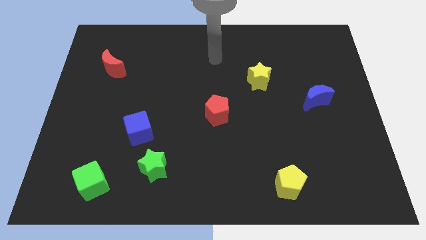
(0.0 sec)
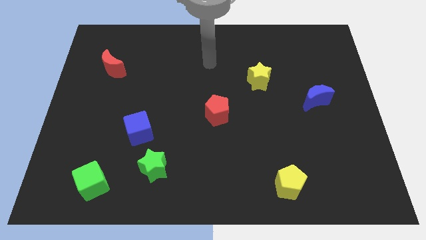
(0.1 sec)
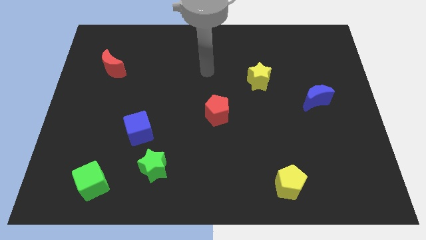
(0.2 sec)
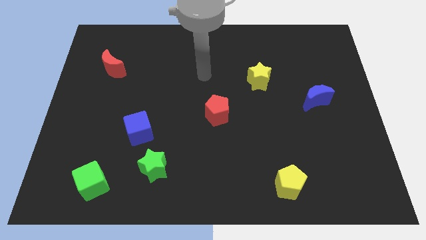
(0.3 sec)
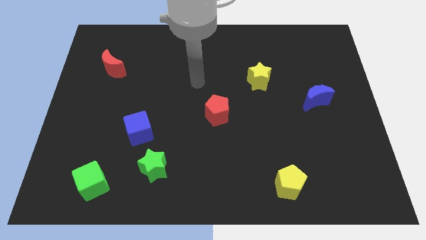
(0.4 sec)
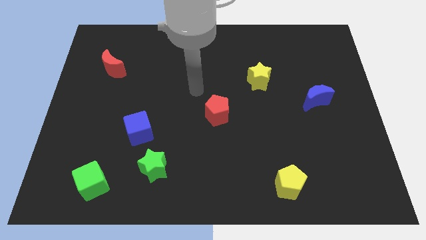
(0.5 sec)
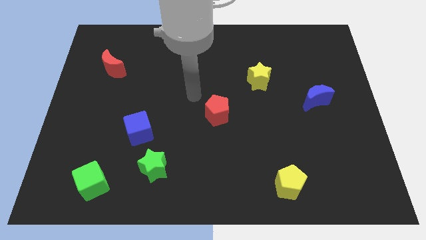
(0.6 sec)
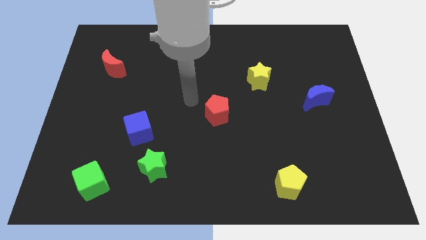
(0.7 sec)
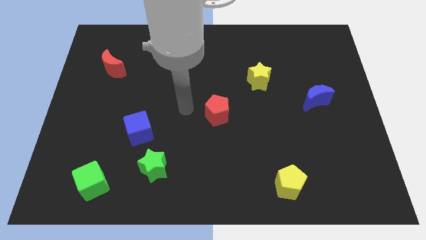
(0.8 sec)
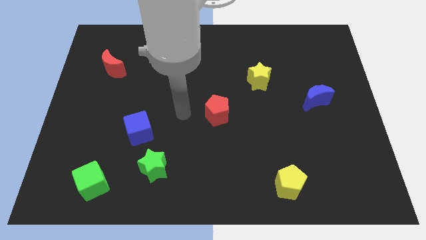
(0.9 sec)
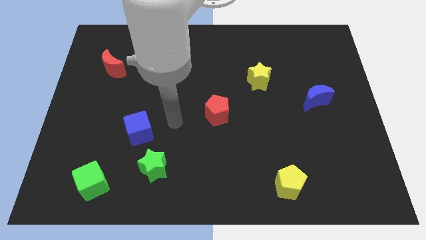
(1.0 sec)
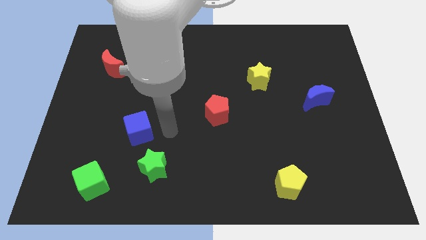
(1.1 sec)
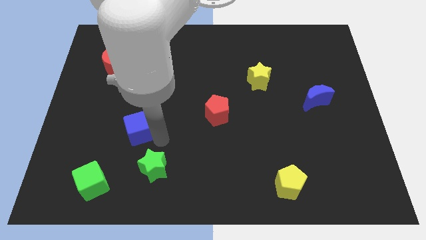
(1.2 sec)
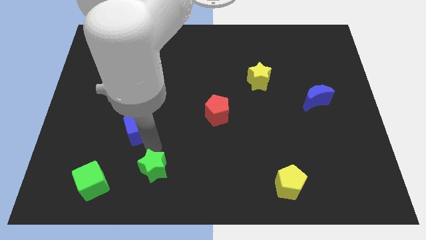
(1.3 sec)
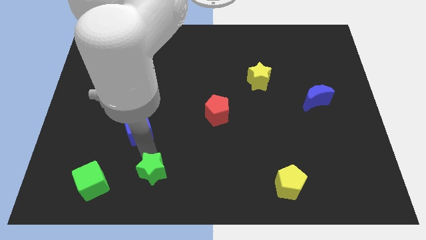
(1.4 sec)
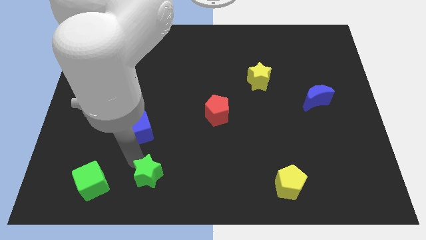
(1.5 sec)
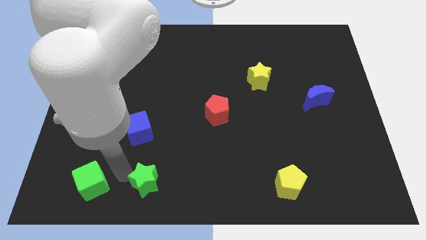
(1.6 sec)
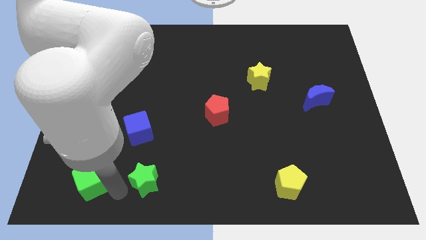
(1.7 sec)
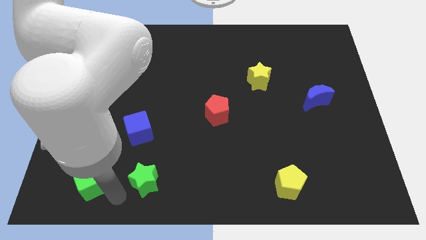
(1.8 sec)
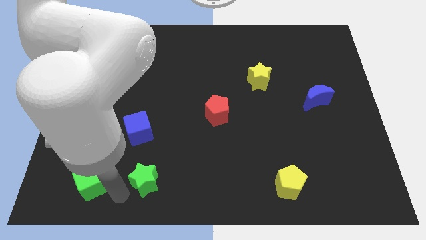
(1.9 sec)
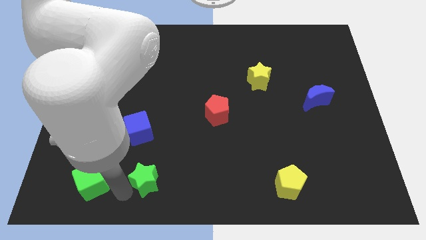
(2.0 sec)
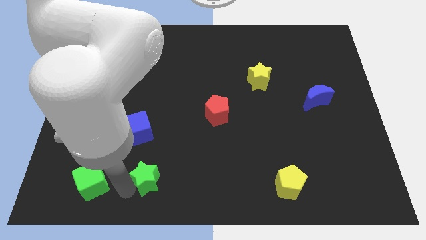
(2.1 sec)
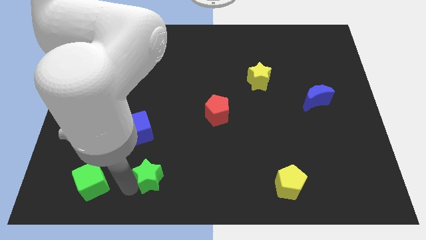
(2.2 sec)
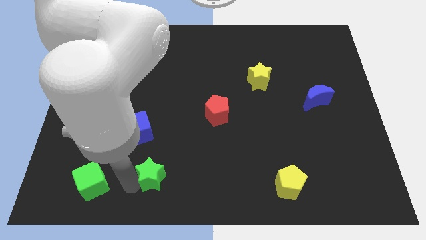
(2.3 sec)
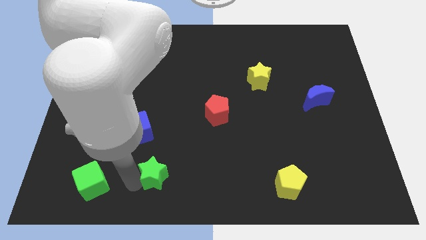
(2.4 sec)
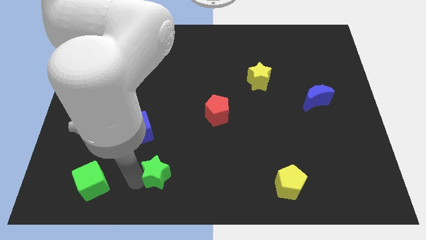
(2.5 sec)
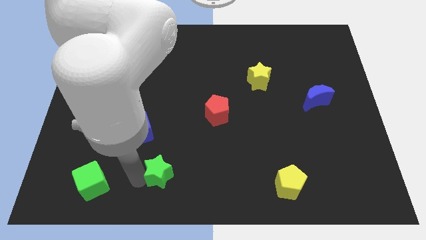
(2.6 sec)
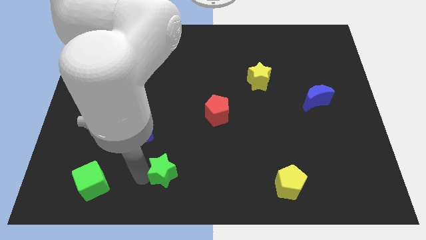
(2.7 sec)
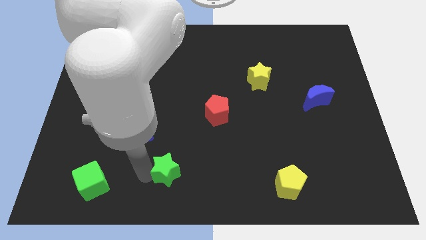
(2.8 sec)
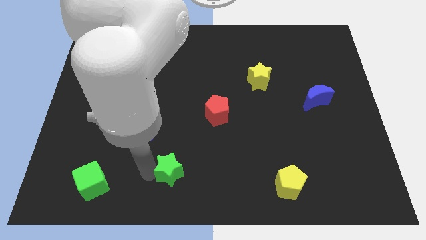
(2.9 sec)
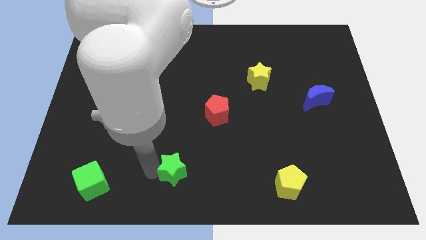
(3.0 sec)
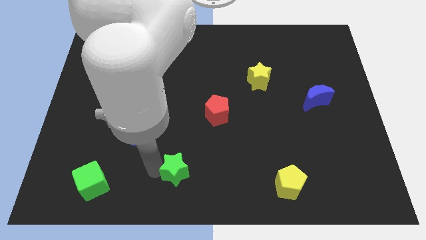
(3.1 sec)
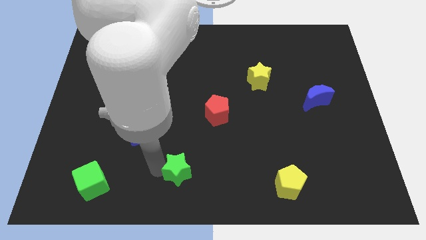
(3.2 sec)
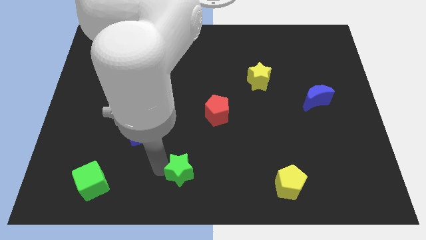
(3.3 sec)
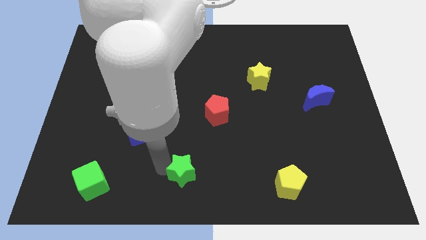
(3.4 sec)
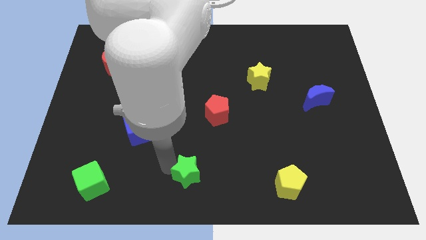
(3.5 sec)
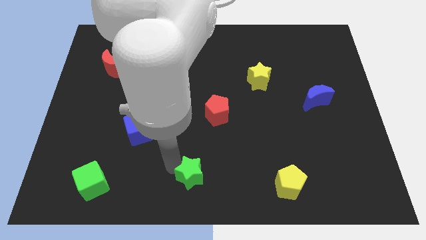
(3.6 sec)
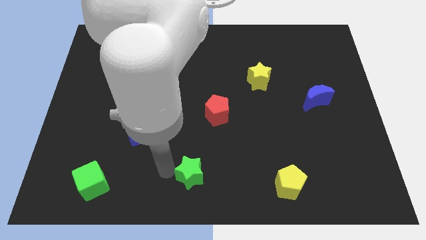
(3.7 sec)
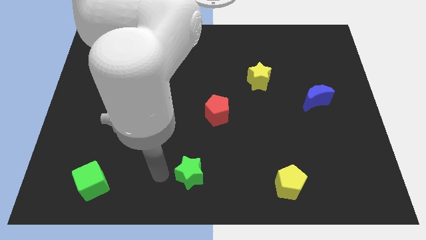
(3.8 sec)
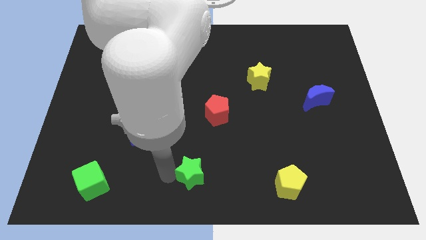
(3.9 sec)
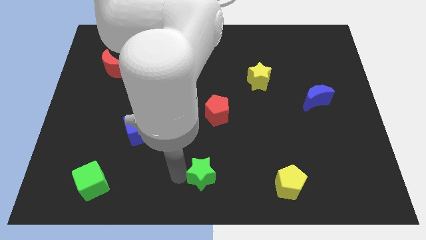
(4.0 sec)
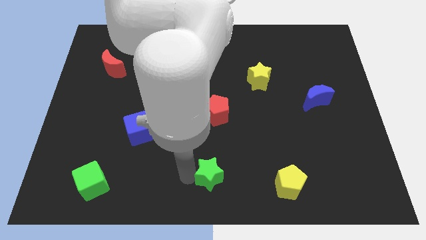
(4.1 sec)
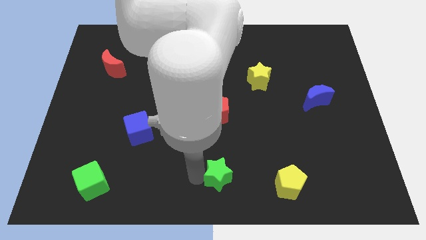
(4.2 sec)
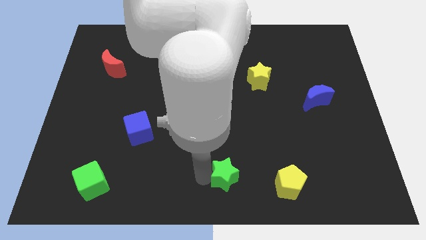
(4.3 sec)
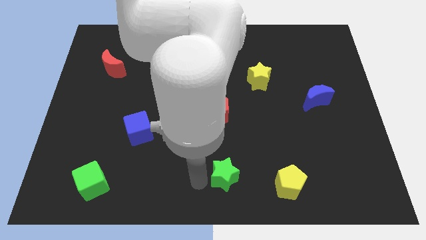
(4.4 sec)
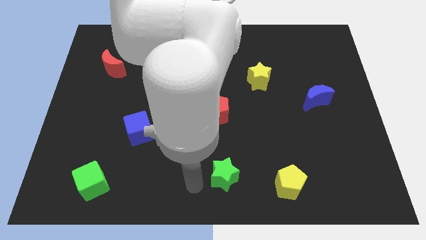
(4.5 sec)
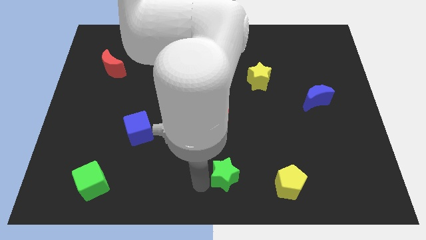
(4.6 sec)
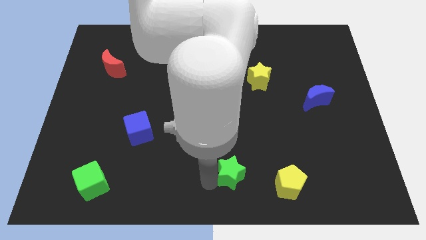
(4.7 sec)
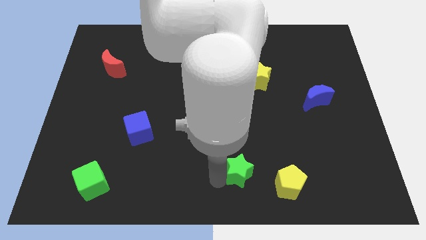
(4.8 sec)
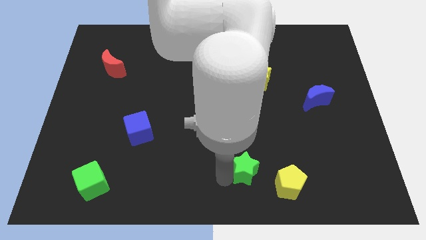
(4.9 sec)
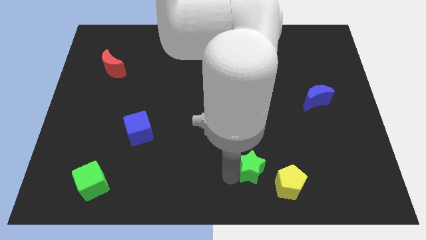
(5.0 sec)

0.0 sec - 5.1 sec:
slide the green star right

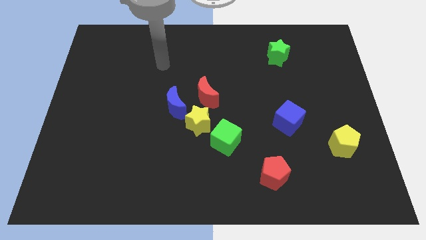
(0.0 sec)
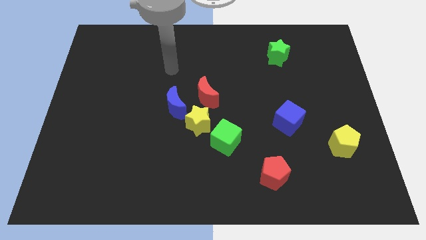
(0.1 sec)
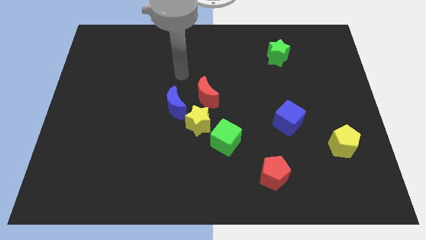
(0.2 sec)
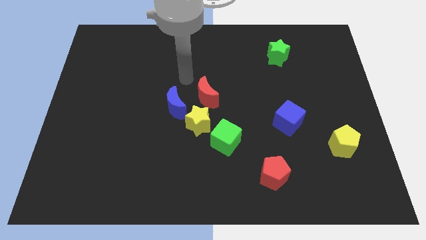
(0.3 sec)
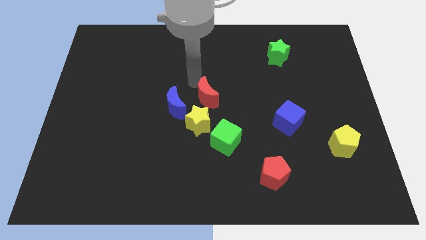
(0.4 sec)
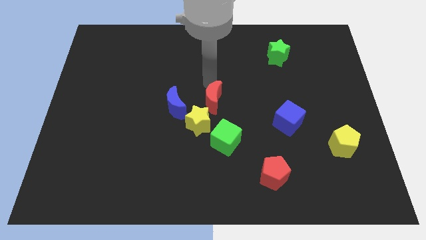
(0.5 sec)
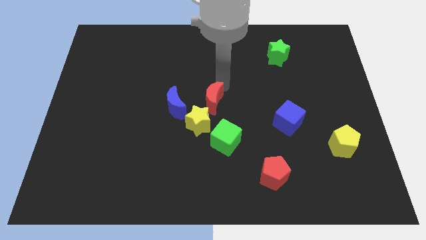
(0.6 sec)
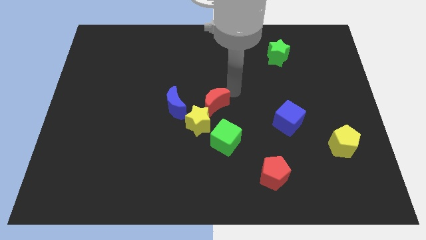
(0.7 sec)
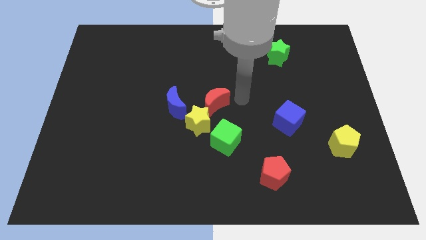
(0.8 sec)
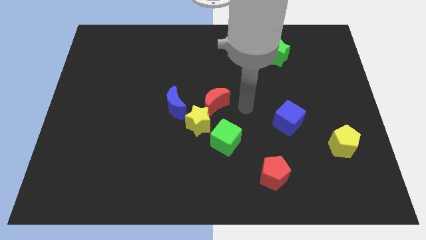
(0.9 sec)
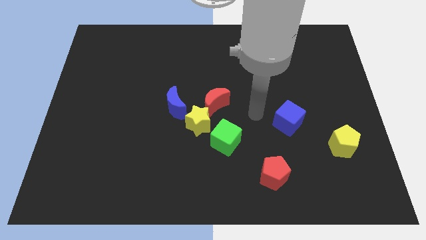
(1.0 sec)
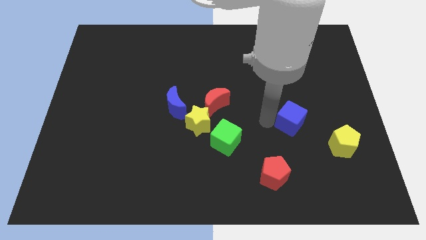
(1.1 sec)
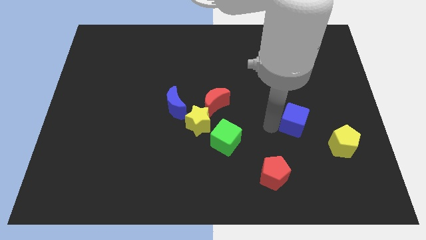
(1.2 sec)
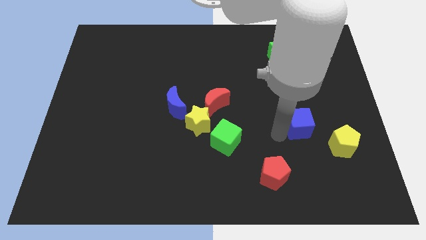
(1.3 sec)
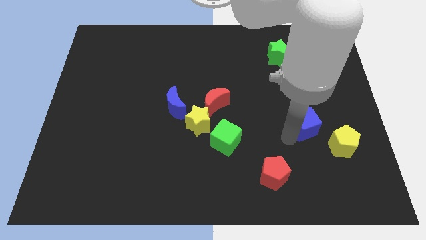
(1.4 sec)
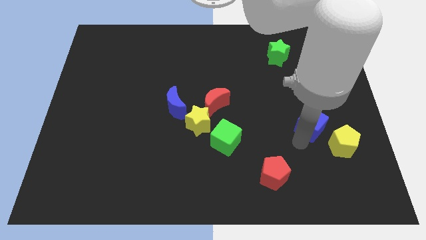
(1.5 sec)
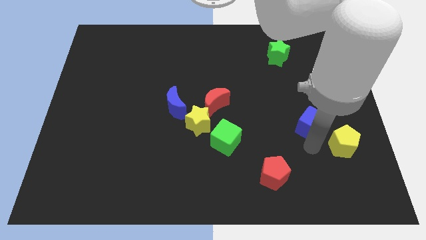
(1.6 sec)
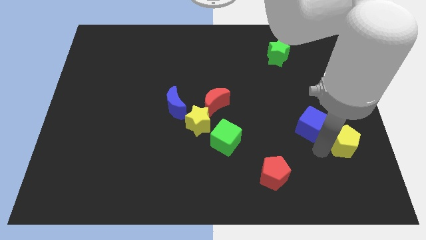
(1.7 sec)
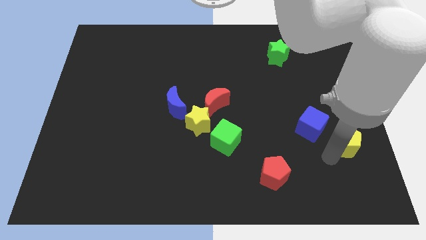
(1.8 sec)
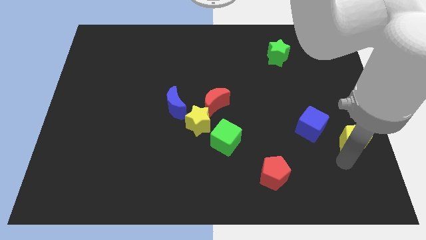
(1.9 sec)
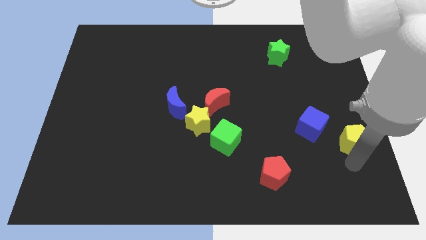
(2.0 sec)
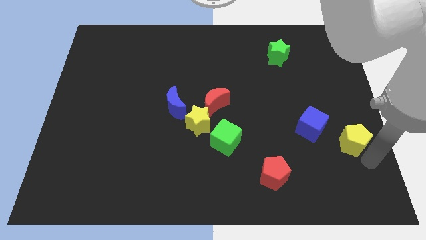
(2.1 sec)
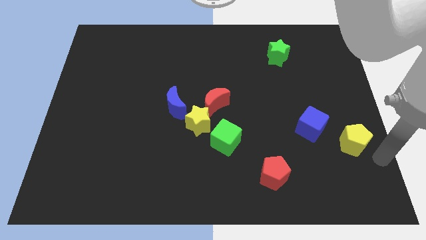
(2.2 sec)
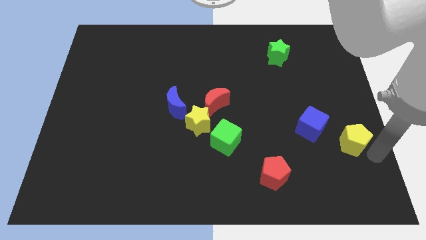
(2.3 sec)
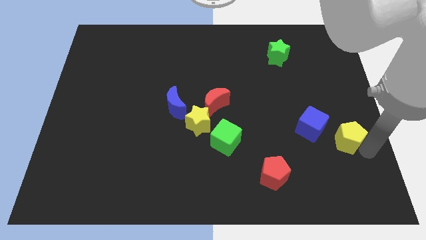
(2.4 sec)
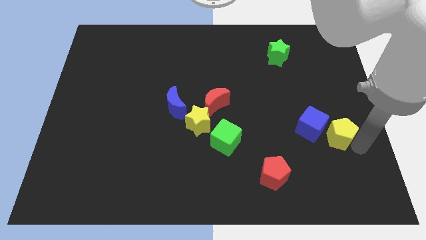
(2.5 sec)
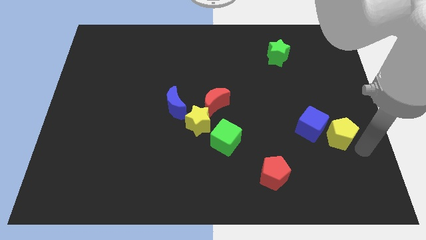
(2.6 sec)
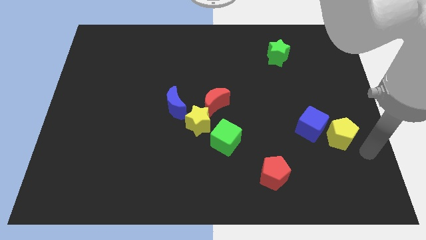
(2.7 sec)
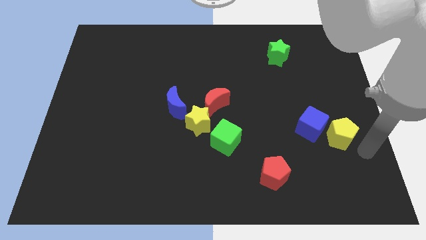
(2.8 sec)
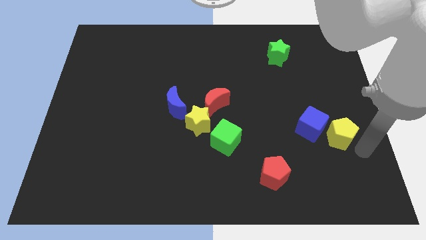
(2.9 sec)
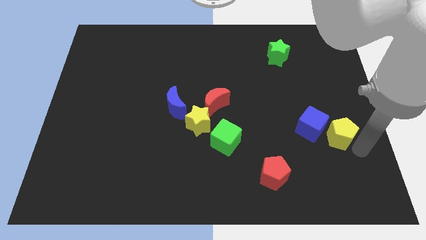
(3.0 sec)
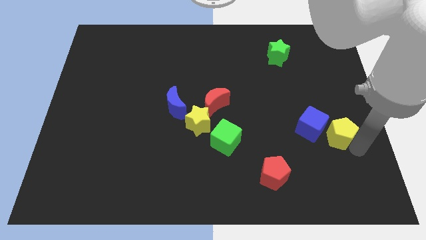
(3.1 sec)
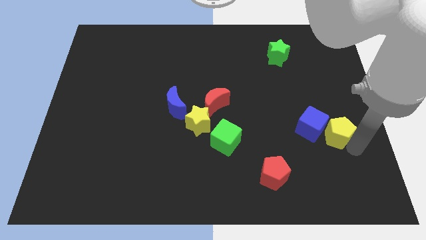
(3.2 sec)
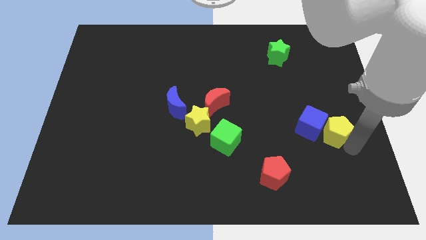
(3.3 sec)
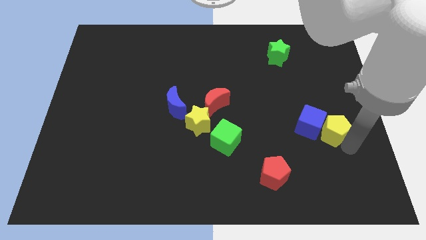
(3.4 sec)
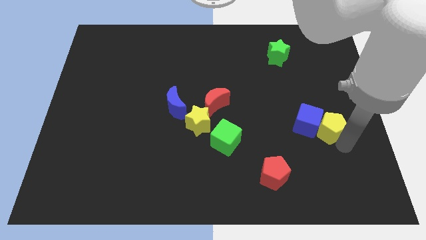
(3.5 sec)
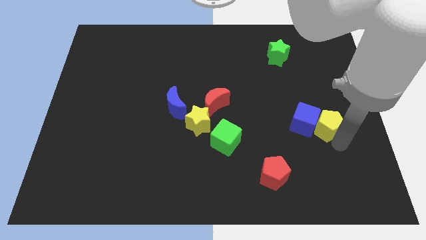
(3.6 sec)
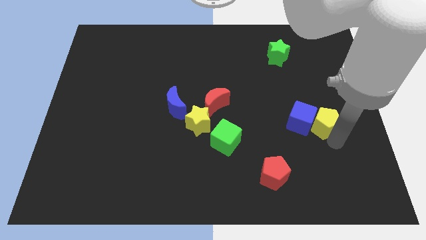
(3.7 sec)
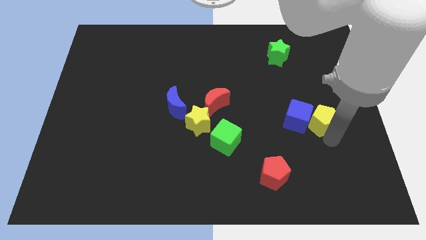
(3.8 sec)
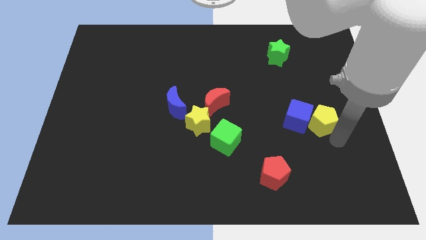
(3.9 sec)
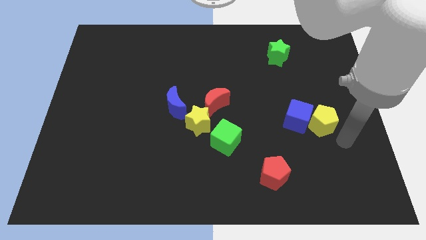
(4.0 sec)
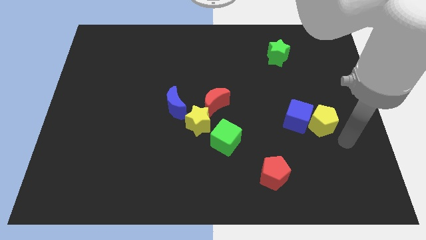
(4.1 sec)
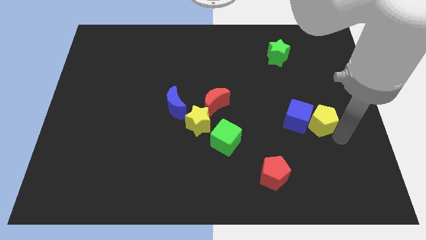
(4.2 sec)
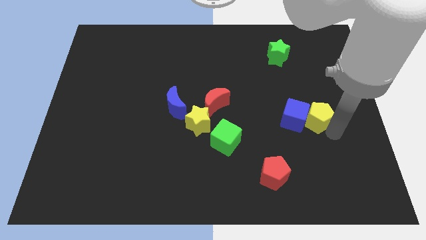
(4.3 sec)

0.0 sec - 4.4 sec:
move the yellow pentagon diagonally upwards and left a bit
